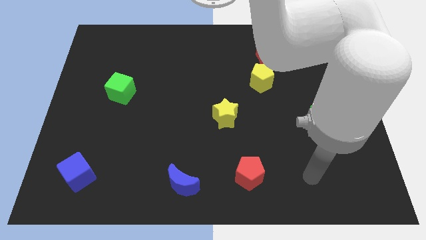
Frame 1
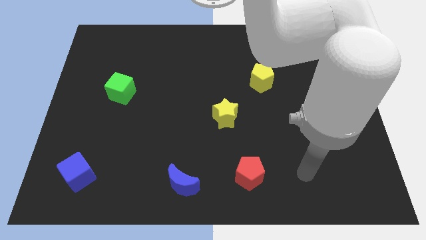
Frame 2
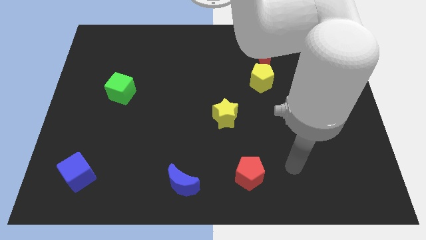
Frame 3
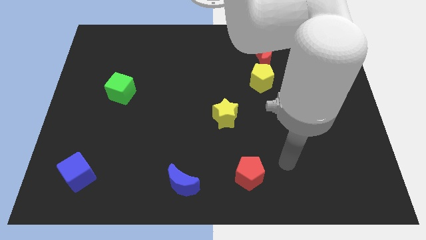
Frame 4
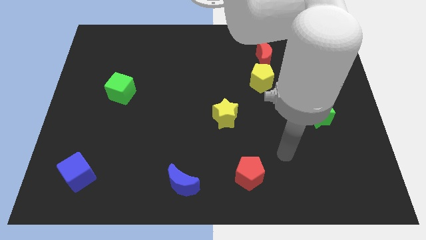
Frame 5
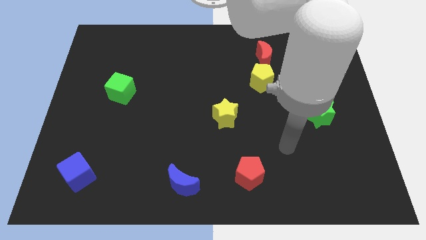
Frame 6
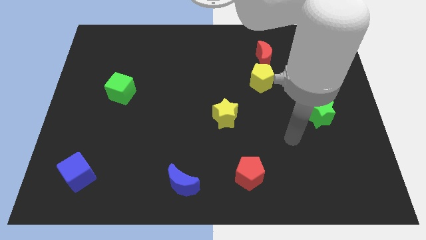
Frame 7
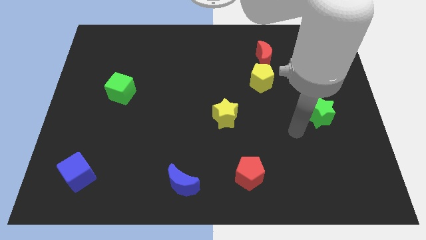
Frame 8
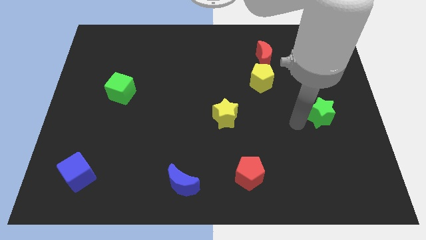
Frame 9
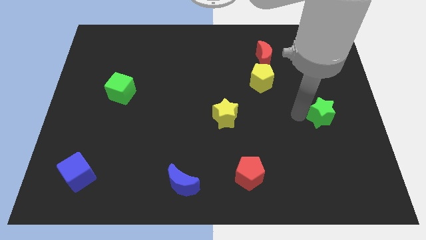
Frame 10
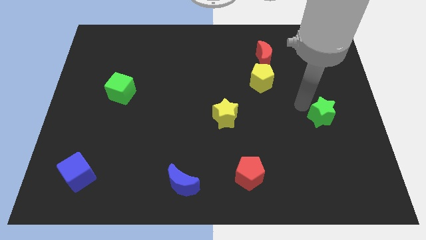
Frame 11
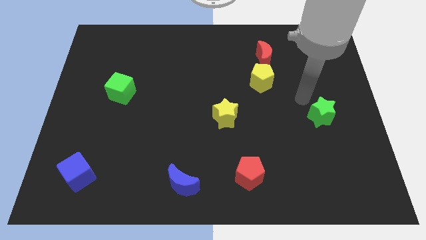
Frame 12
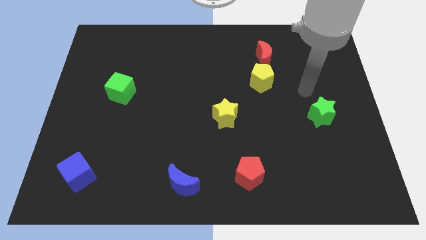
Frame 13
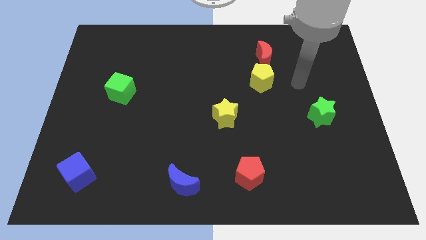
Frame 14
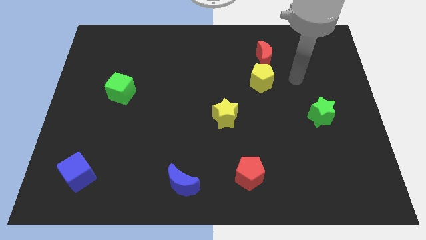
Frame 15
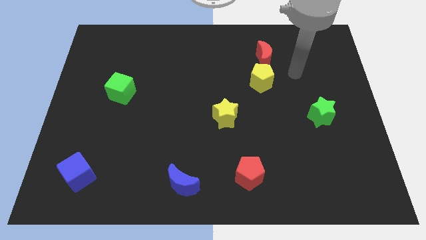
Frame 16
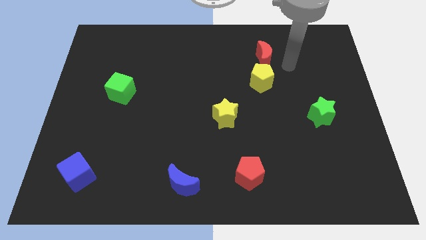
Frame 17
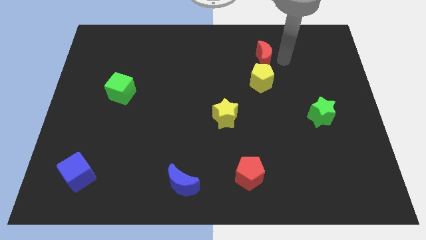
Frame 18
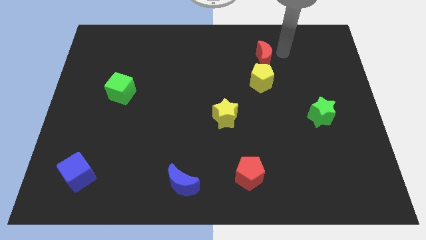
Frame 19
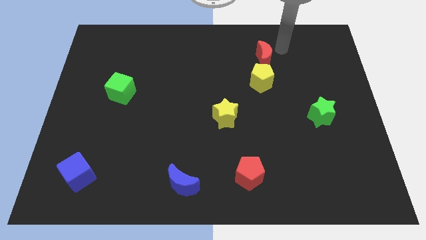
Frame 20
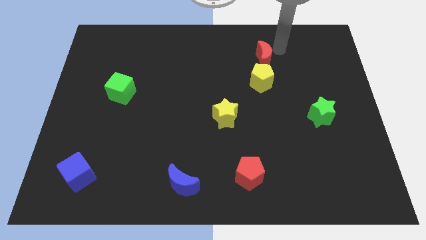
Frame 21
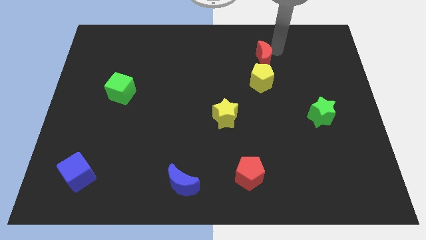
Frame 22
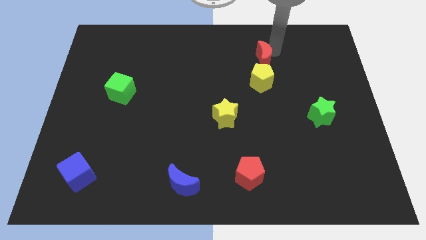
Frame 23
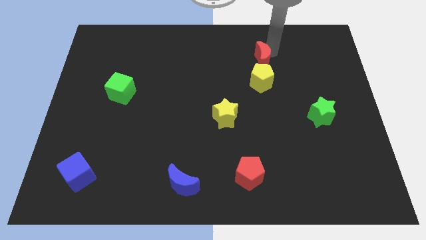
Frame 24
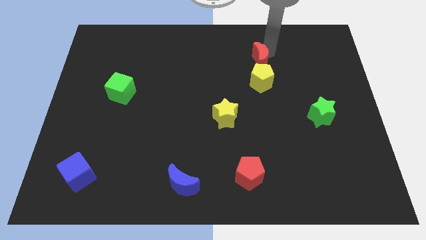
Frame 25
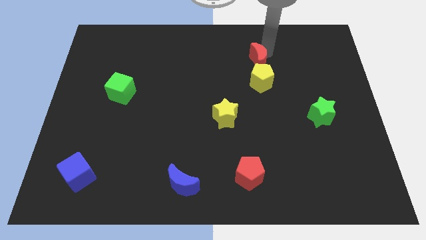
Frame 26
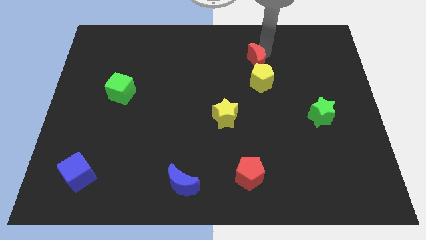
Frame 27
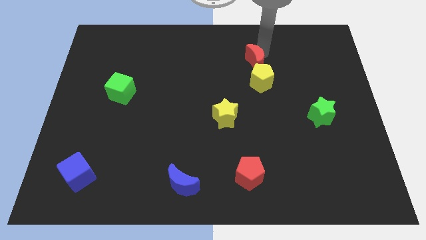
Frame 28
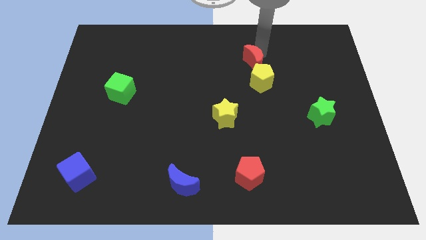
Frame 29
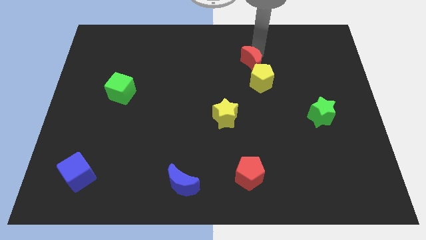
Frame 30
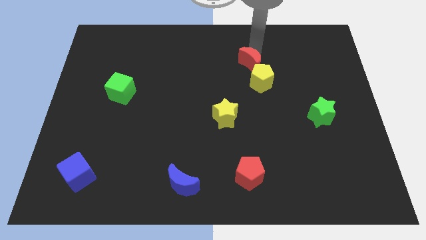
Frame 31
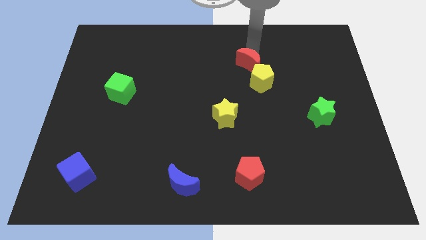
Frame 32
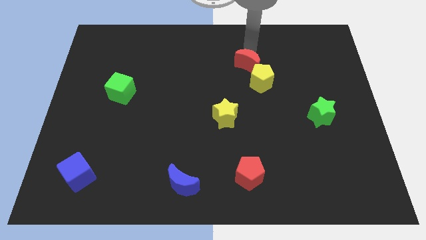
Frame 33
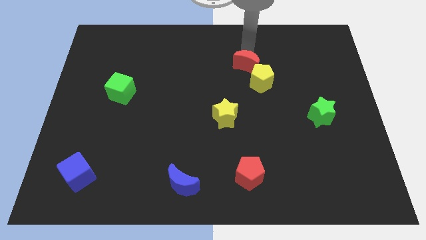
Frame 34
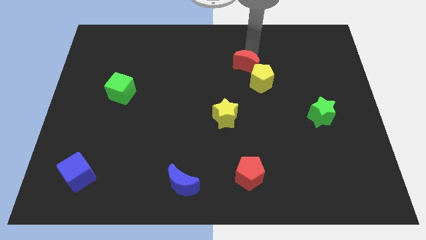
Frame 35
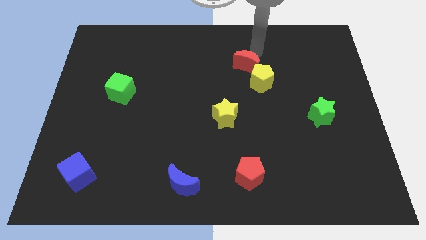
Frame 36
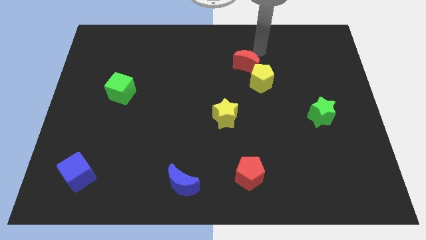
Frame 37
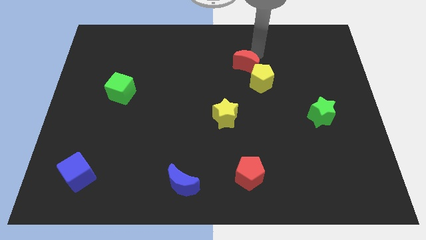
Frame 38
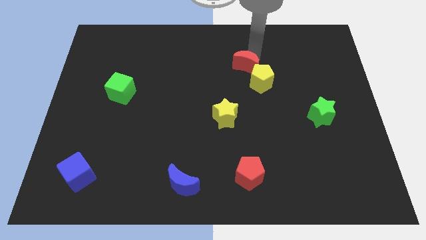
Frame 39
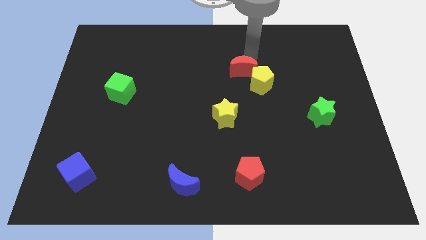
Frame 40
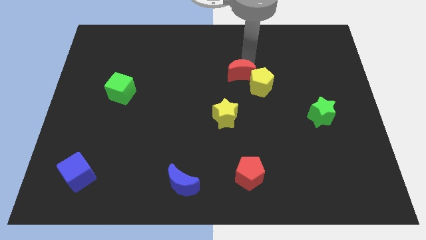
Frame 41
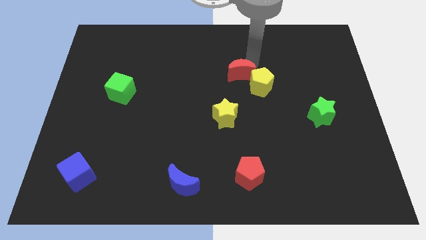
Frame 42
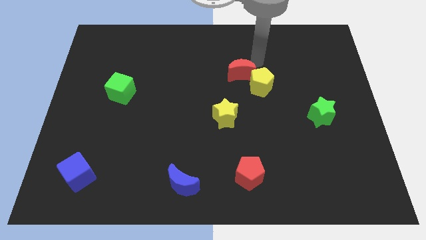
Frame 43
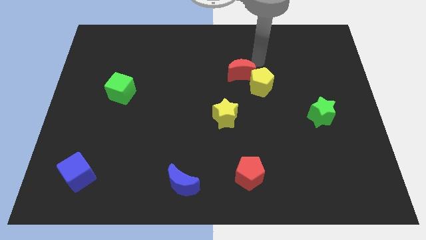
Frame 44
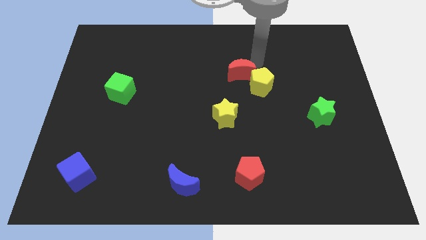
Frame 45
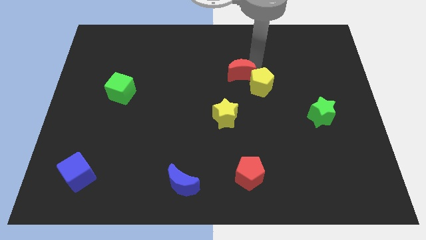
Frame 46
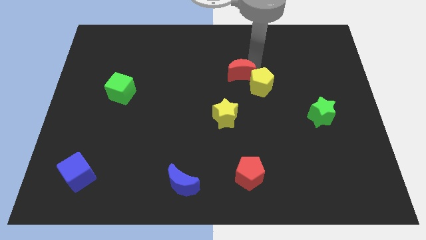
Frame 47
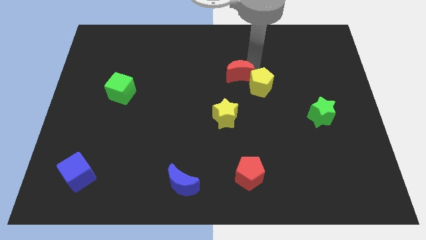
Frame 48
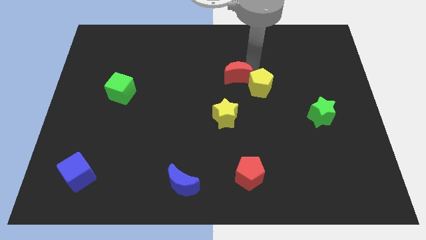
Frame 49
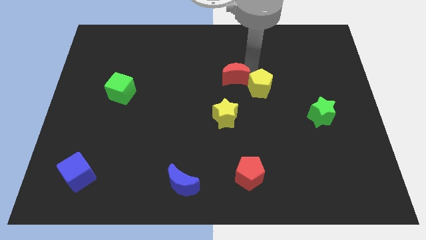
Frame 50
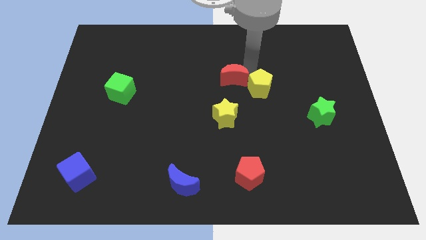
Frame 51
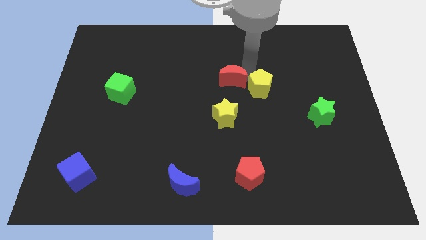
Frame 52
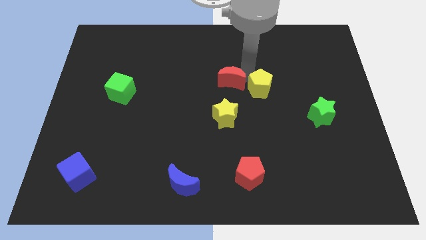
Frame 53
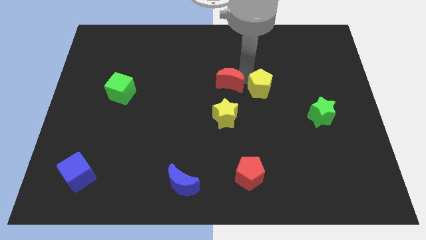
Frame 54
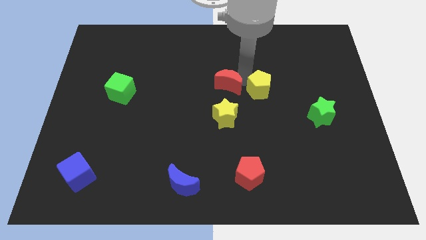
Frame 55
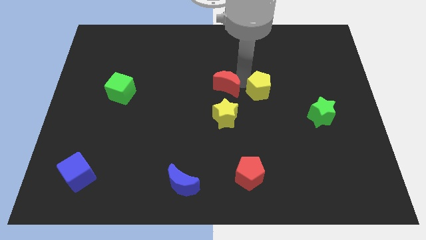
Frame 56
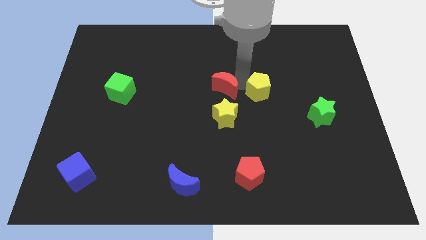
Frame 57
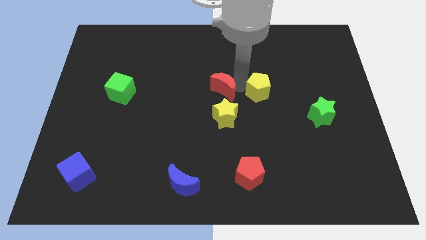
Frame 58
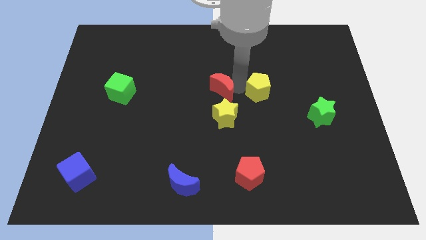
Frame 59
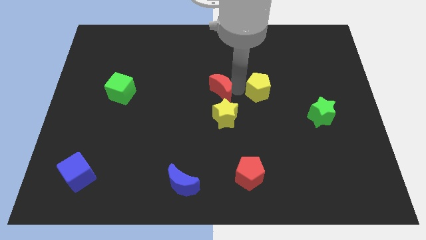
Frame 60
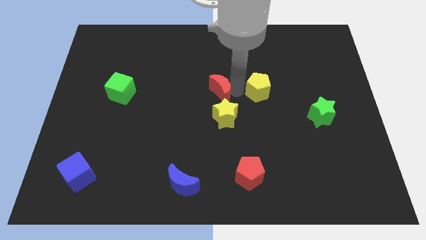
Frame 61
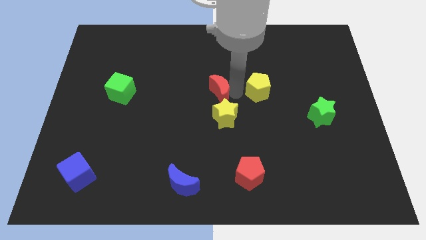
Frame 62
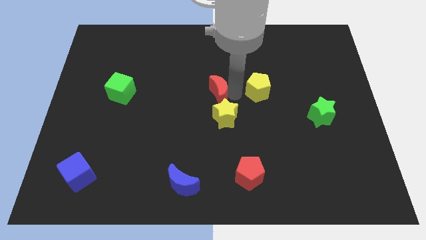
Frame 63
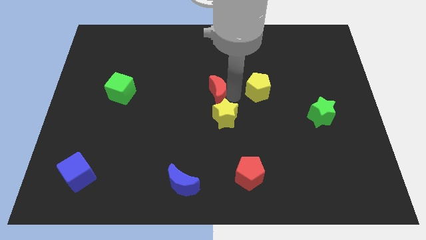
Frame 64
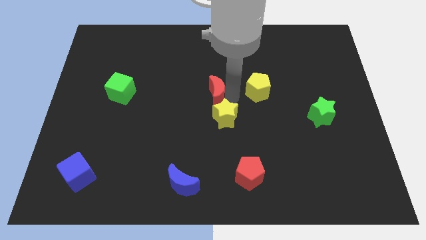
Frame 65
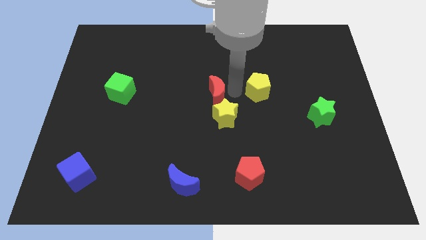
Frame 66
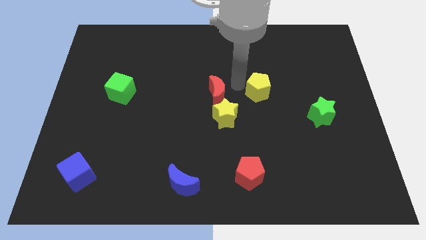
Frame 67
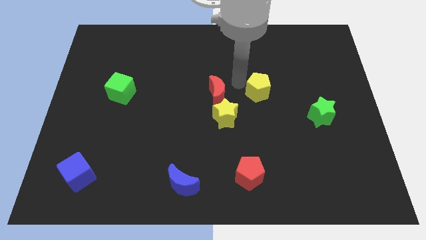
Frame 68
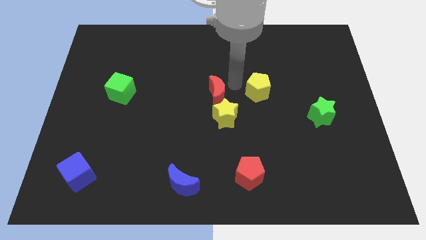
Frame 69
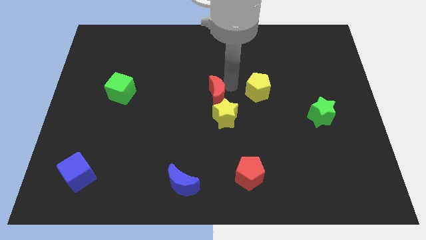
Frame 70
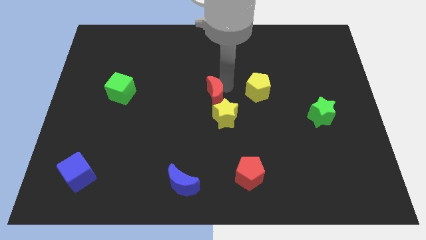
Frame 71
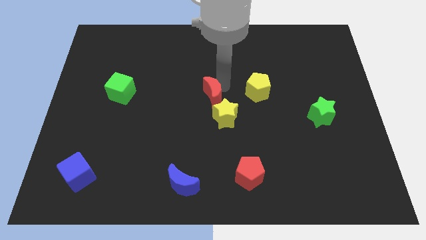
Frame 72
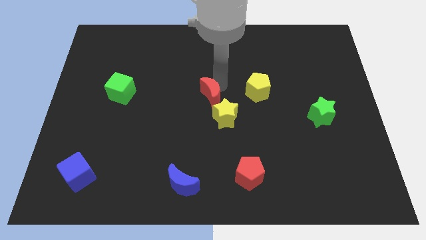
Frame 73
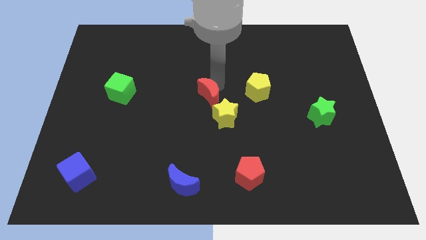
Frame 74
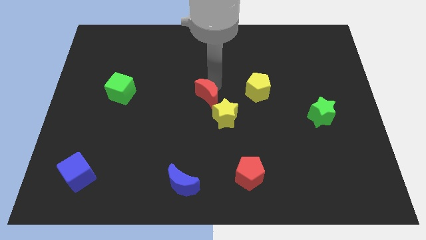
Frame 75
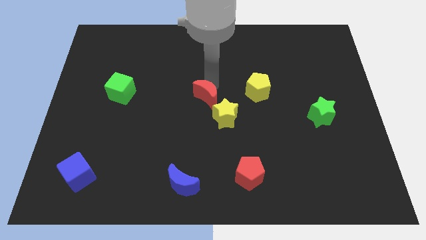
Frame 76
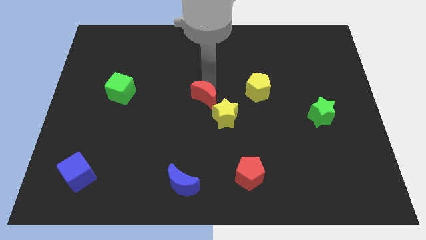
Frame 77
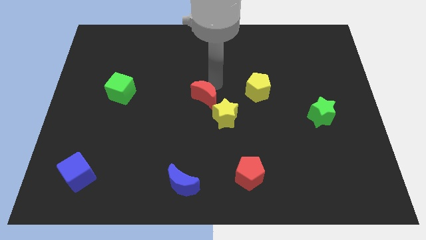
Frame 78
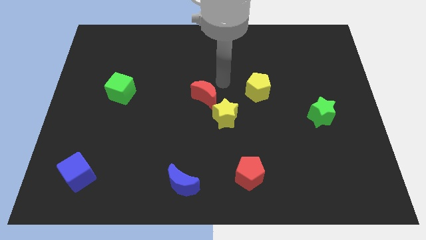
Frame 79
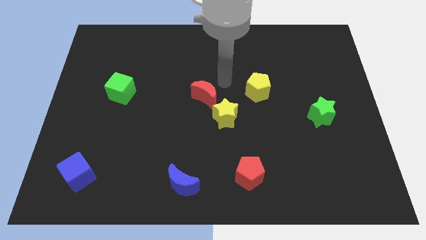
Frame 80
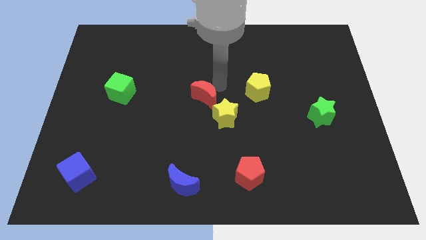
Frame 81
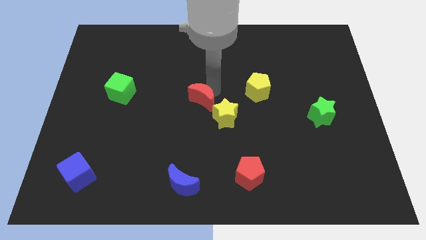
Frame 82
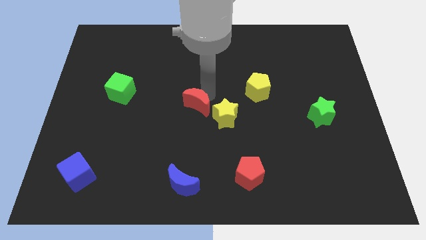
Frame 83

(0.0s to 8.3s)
put the red moon just left of the yellow star

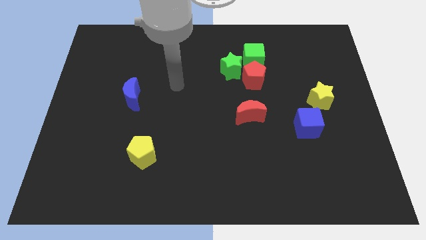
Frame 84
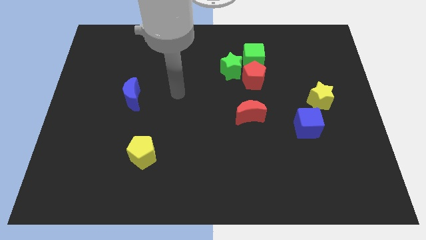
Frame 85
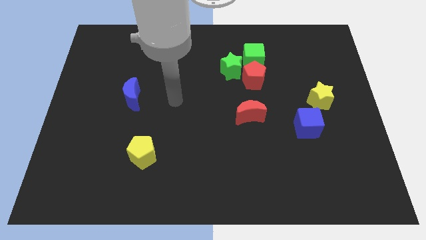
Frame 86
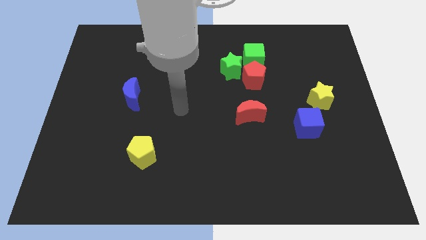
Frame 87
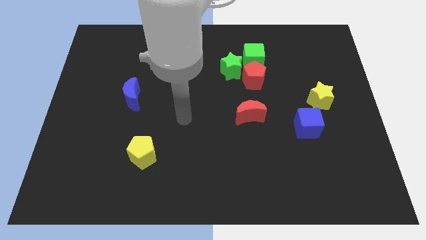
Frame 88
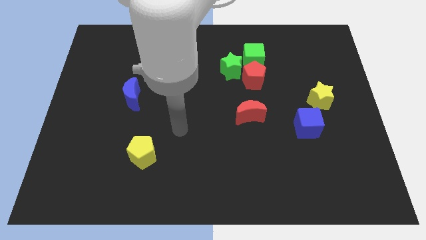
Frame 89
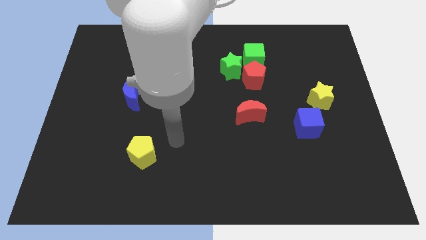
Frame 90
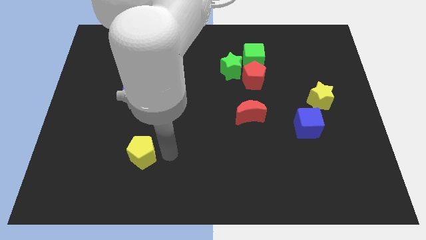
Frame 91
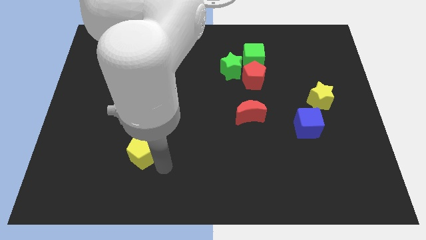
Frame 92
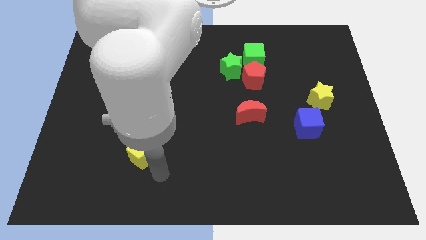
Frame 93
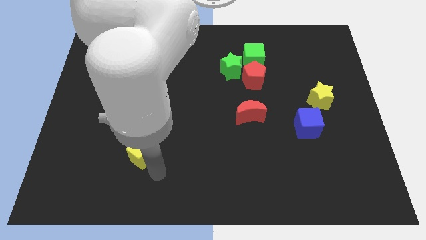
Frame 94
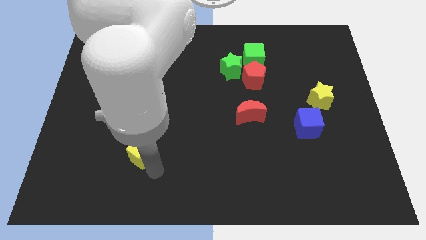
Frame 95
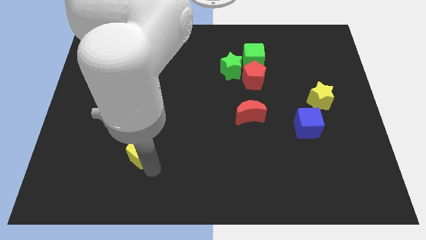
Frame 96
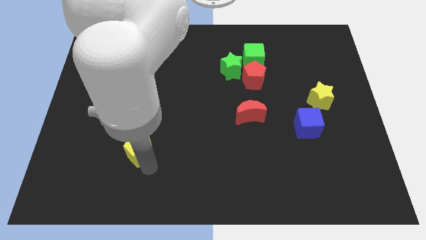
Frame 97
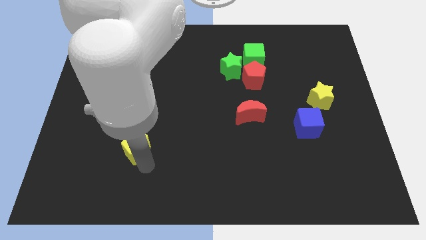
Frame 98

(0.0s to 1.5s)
move the yellow pentagon below the blue moon
